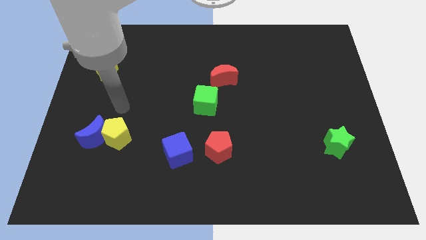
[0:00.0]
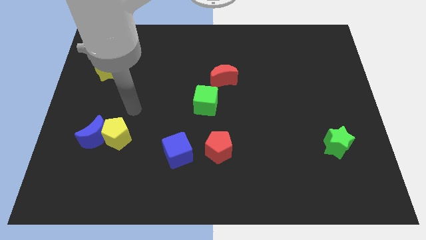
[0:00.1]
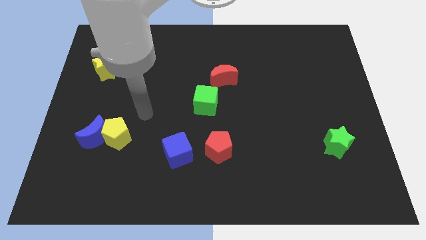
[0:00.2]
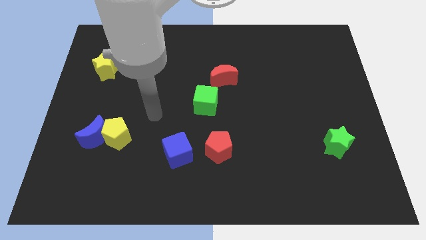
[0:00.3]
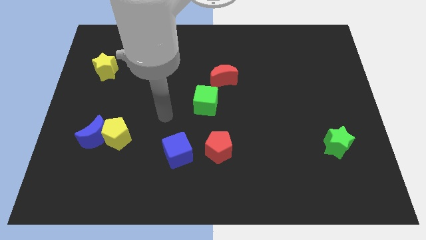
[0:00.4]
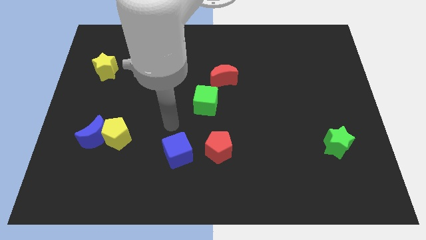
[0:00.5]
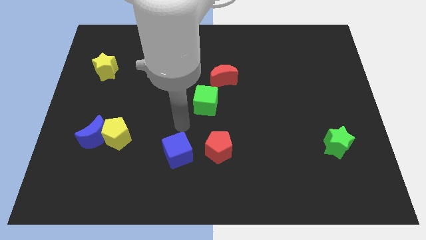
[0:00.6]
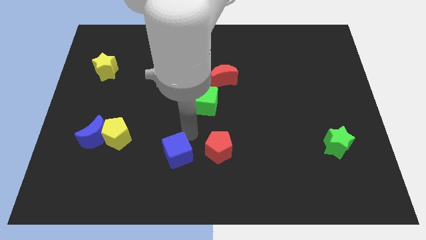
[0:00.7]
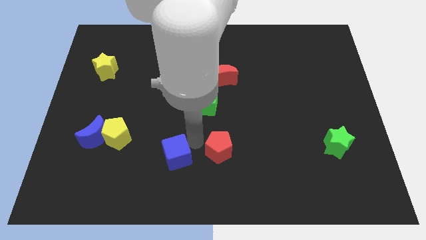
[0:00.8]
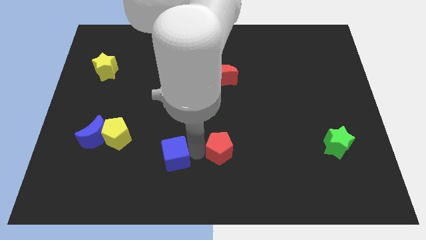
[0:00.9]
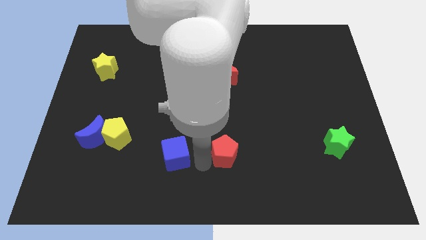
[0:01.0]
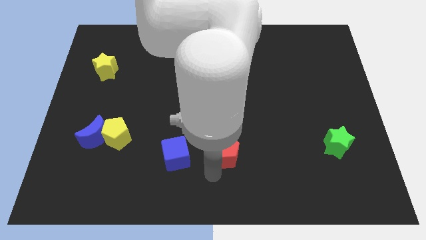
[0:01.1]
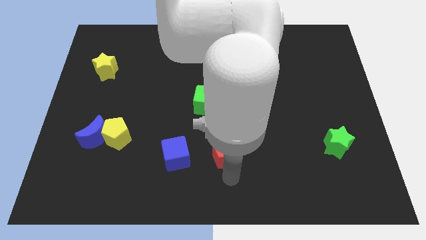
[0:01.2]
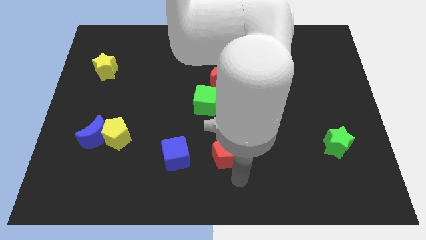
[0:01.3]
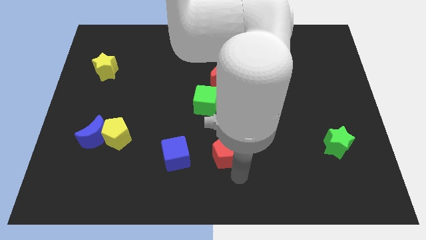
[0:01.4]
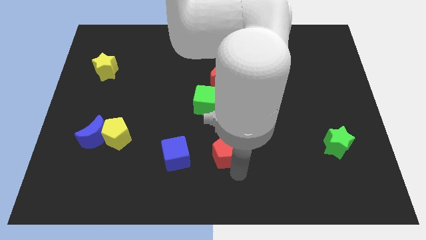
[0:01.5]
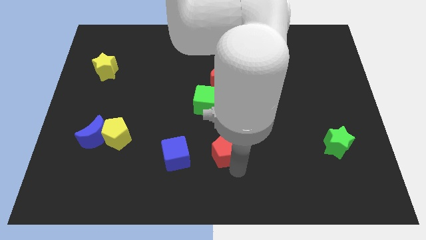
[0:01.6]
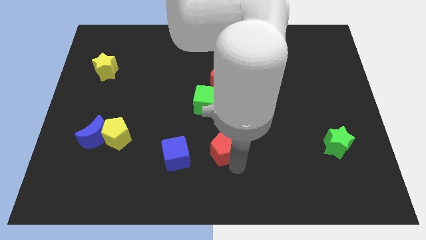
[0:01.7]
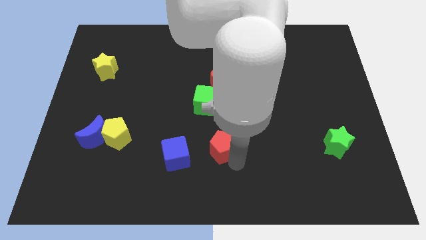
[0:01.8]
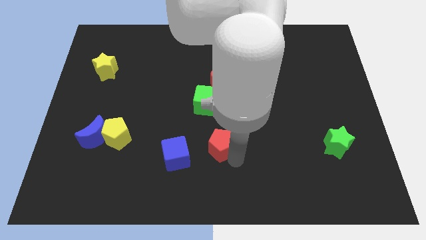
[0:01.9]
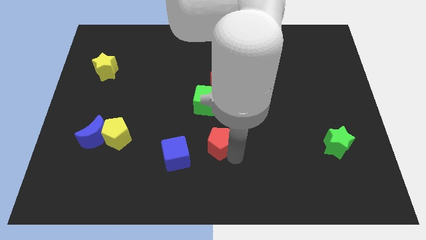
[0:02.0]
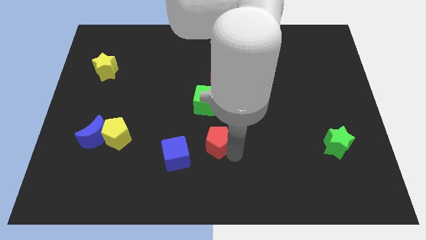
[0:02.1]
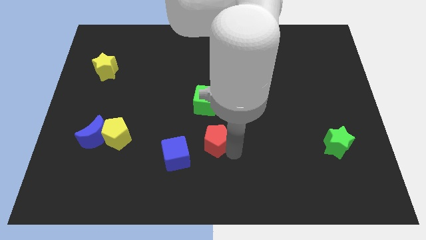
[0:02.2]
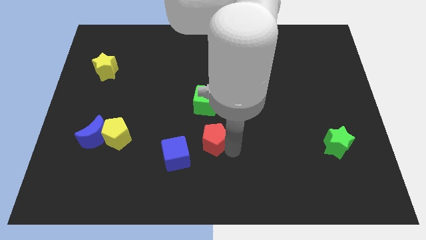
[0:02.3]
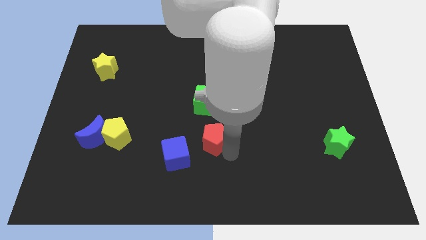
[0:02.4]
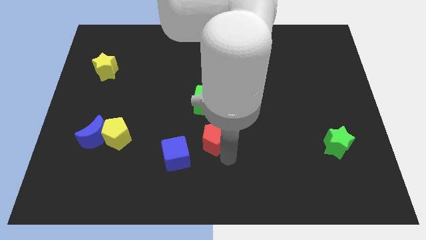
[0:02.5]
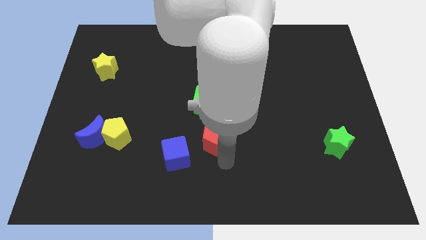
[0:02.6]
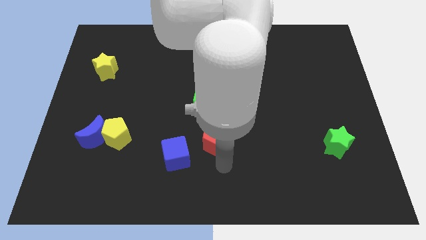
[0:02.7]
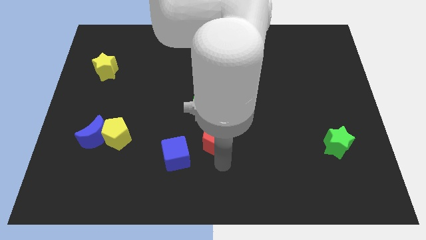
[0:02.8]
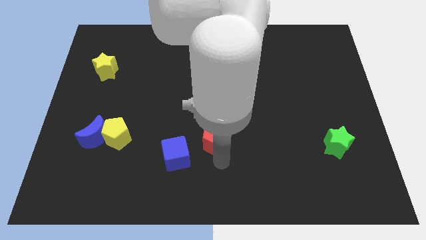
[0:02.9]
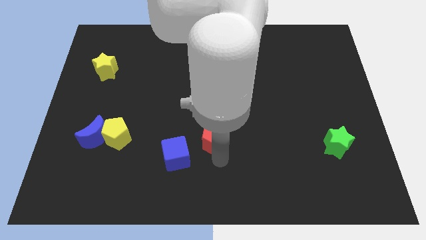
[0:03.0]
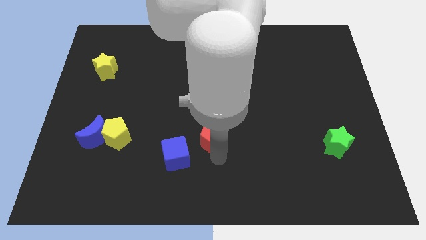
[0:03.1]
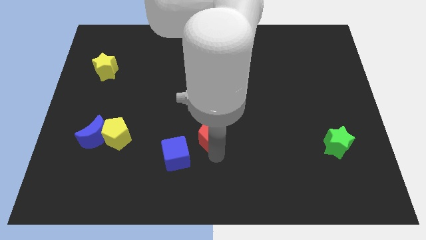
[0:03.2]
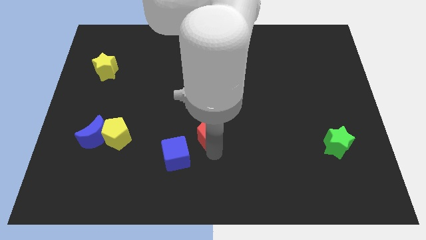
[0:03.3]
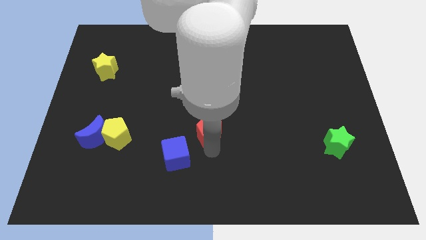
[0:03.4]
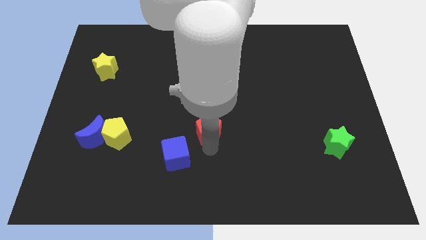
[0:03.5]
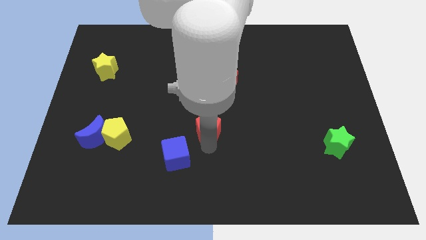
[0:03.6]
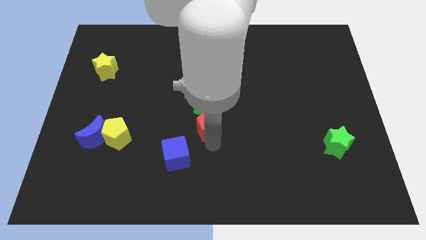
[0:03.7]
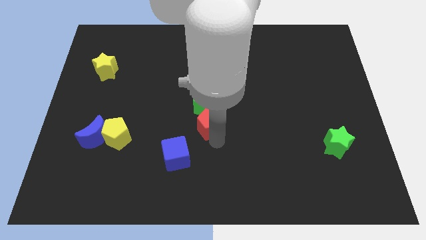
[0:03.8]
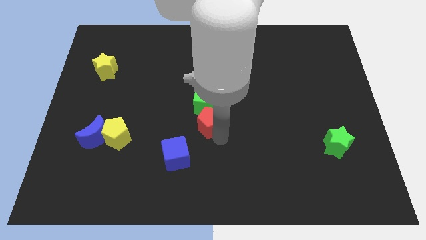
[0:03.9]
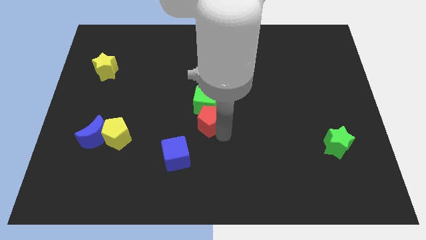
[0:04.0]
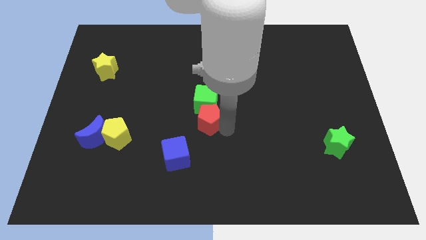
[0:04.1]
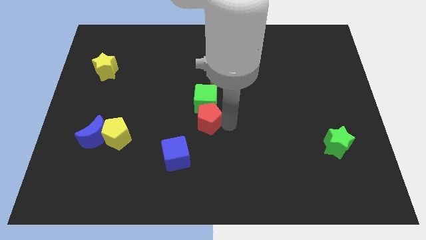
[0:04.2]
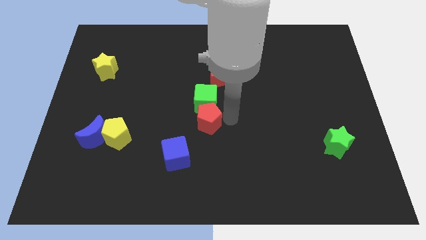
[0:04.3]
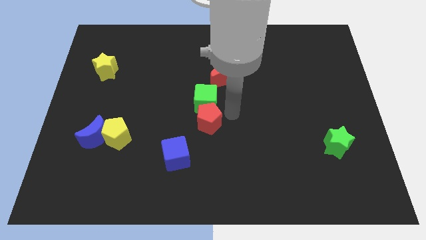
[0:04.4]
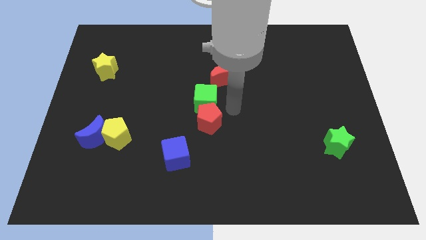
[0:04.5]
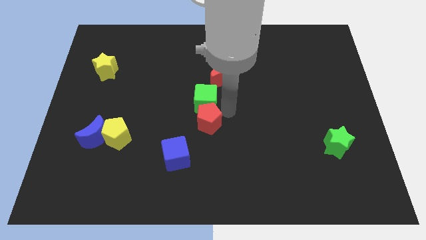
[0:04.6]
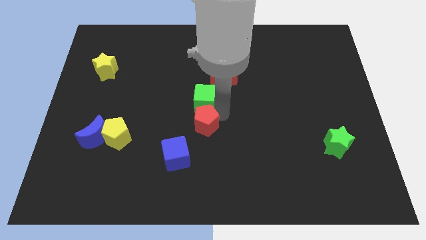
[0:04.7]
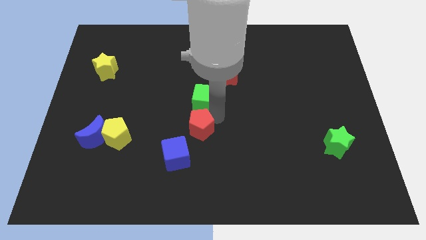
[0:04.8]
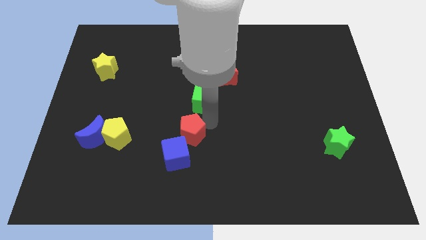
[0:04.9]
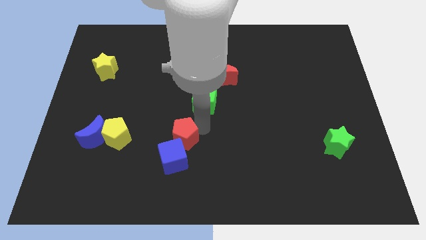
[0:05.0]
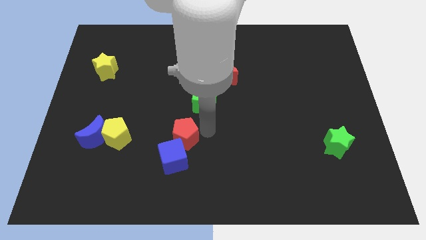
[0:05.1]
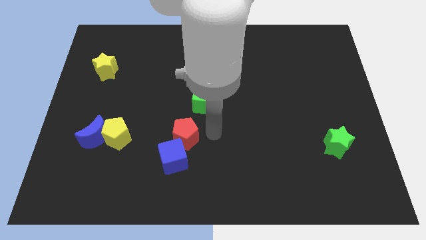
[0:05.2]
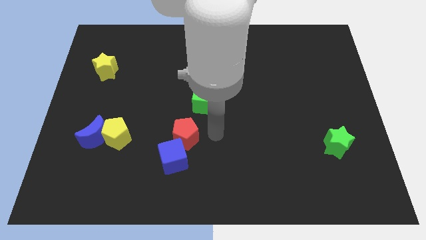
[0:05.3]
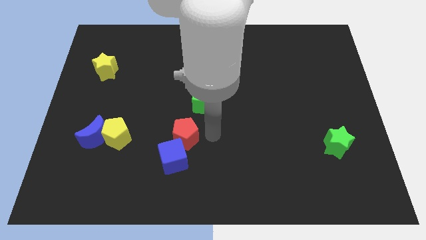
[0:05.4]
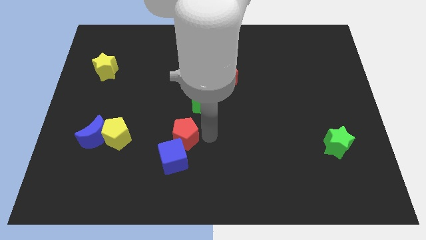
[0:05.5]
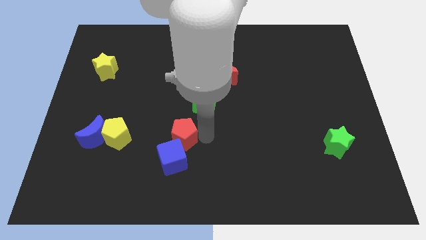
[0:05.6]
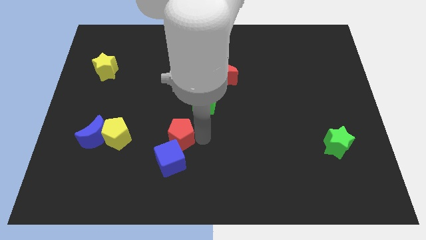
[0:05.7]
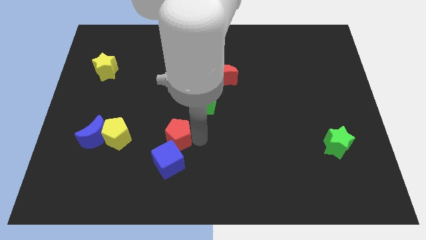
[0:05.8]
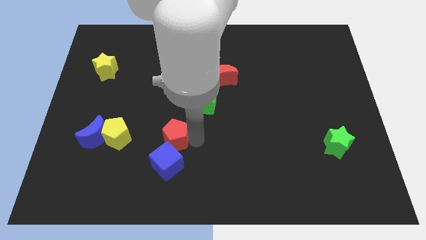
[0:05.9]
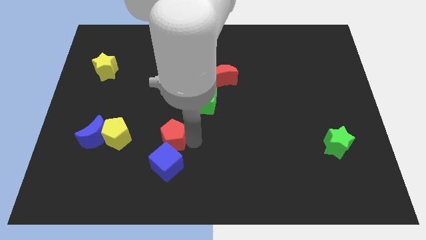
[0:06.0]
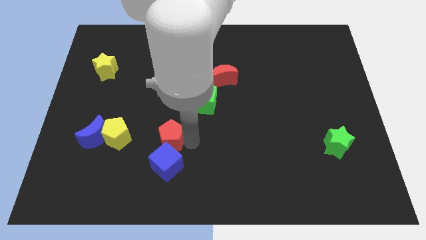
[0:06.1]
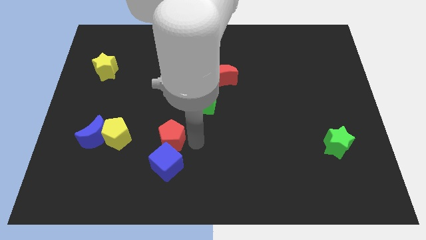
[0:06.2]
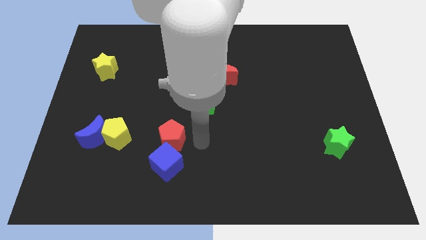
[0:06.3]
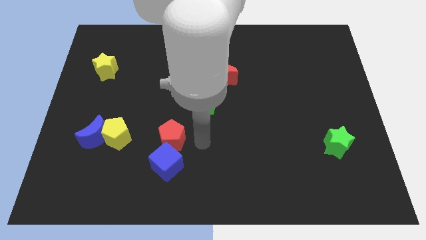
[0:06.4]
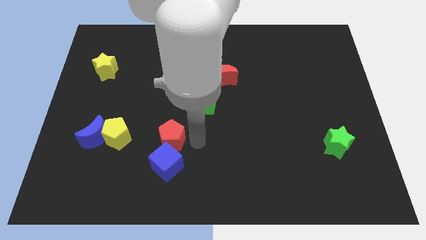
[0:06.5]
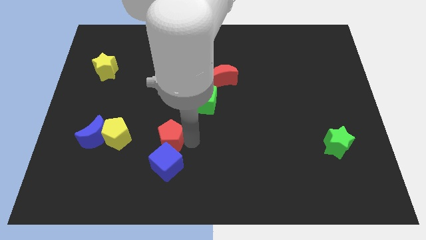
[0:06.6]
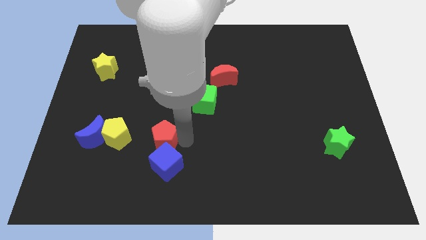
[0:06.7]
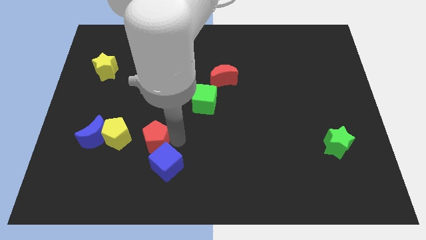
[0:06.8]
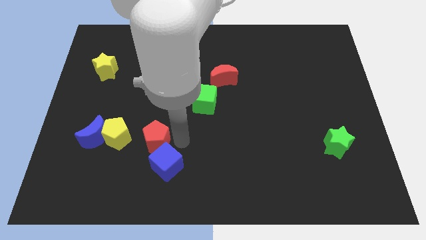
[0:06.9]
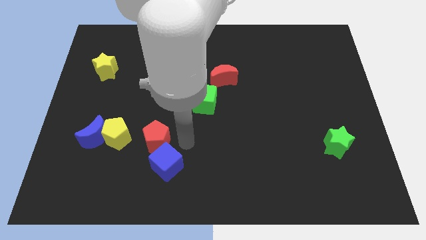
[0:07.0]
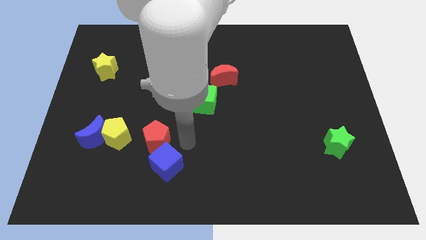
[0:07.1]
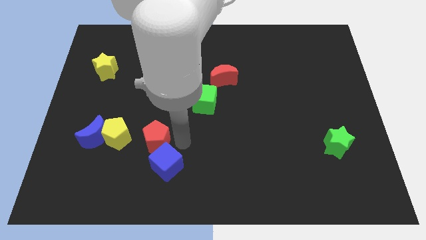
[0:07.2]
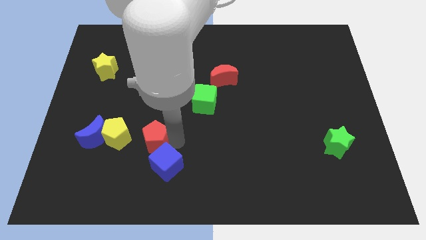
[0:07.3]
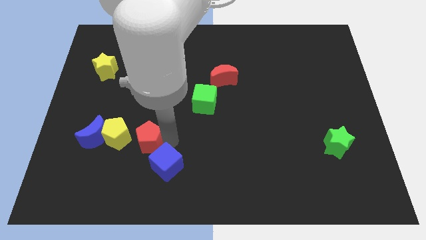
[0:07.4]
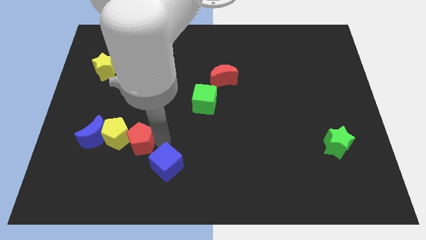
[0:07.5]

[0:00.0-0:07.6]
move the red pentagon close to the yellow pentagon

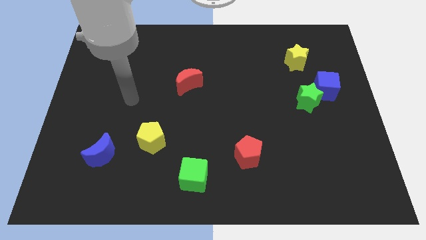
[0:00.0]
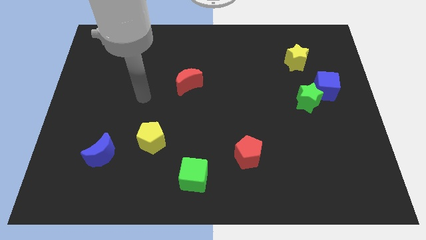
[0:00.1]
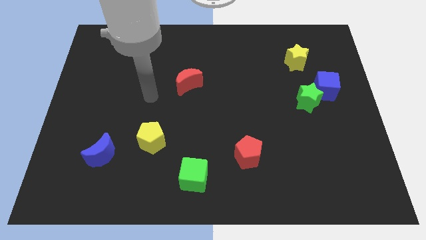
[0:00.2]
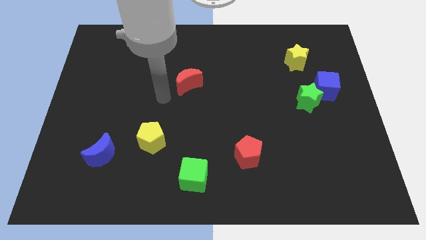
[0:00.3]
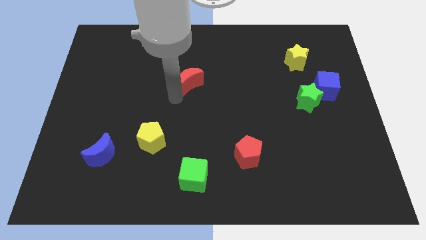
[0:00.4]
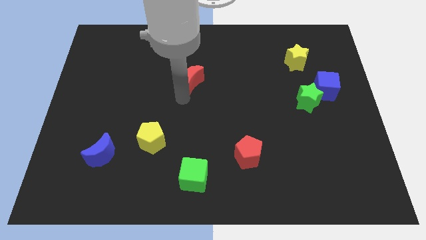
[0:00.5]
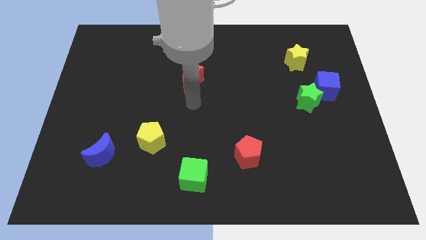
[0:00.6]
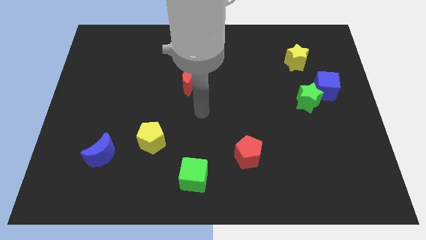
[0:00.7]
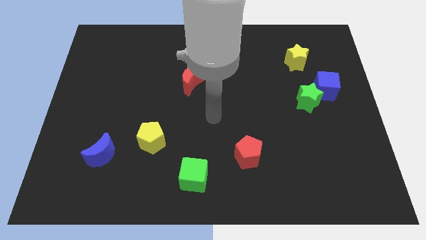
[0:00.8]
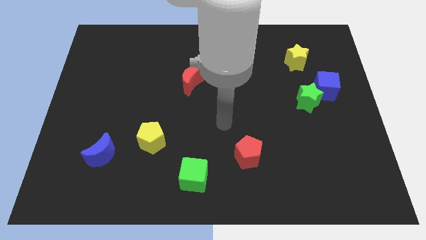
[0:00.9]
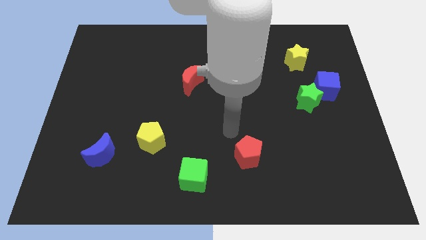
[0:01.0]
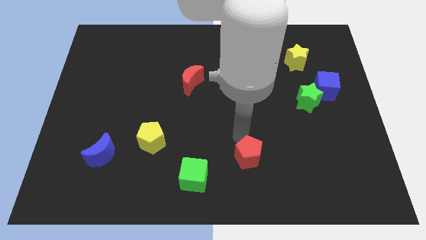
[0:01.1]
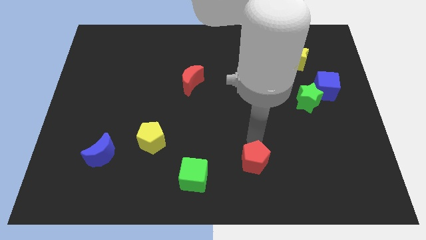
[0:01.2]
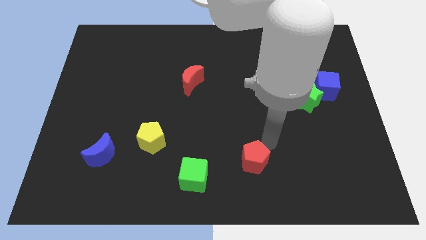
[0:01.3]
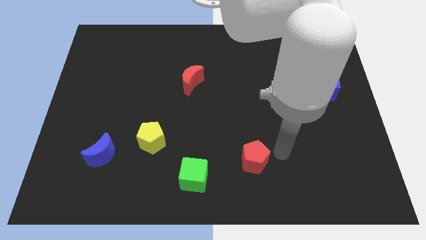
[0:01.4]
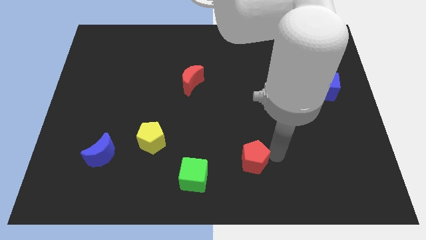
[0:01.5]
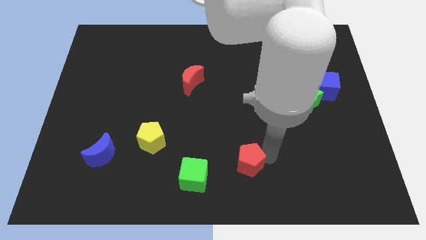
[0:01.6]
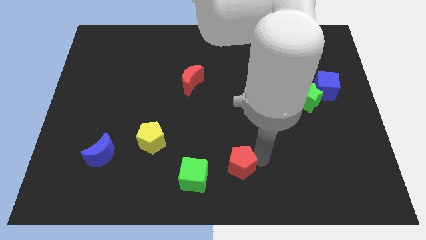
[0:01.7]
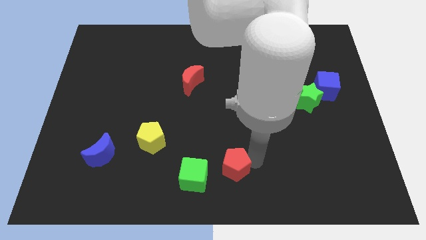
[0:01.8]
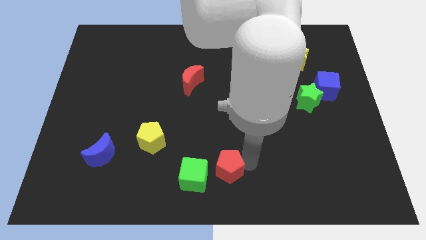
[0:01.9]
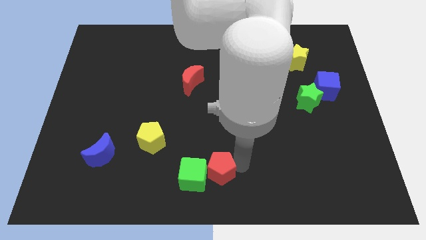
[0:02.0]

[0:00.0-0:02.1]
push the red pentagon to the green cube
